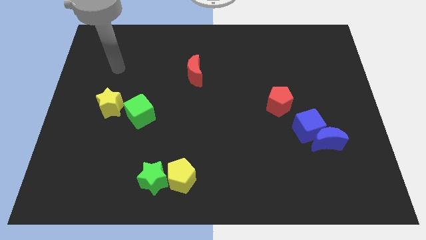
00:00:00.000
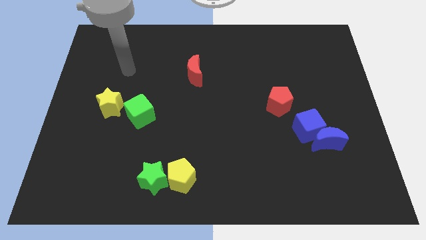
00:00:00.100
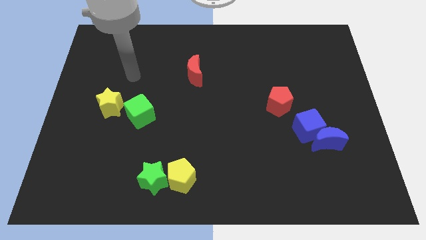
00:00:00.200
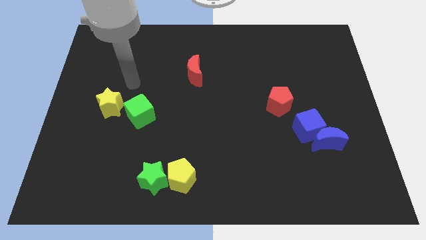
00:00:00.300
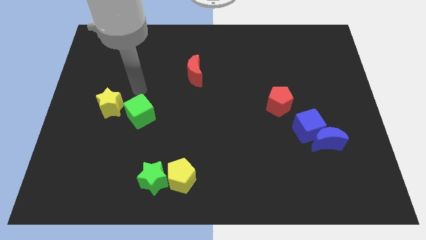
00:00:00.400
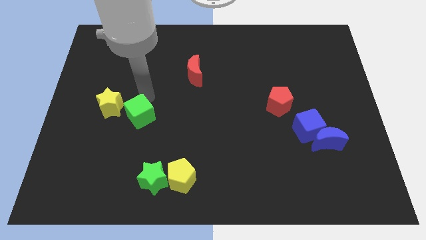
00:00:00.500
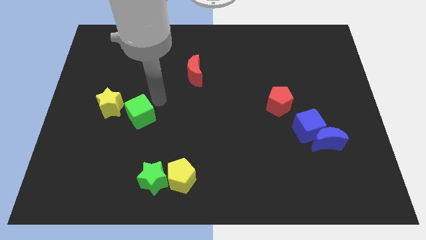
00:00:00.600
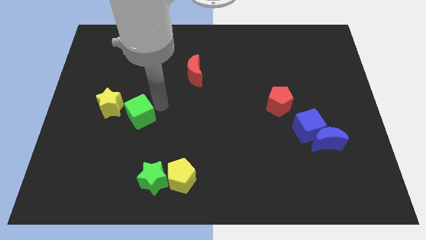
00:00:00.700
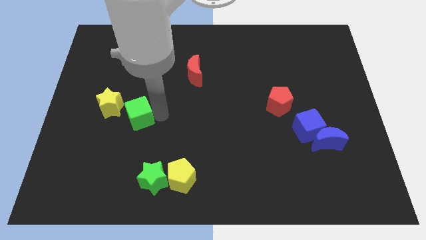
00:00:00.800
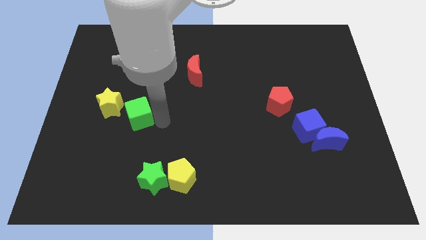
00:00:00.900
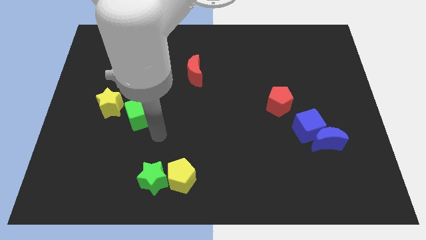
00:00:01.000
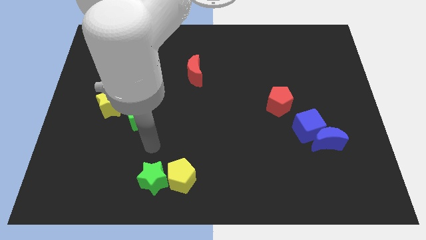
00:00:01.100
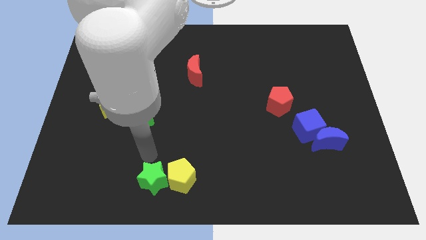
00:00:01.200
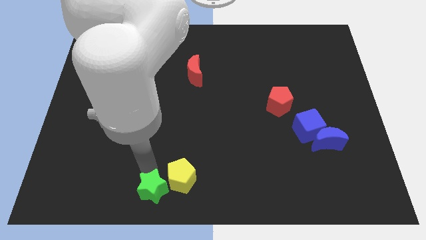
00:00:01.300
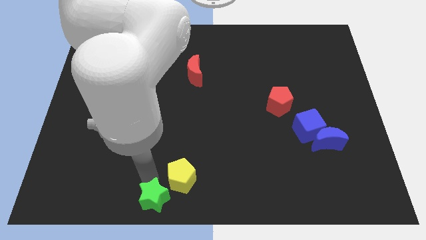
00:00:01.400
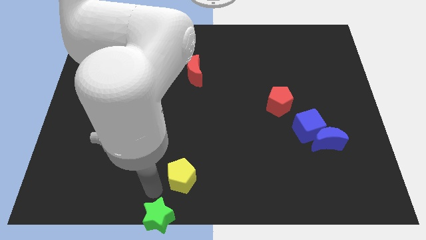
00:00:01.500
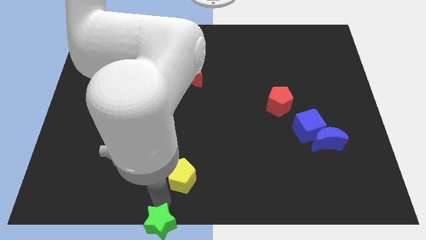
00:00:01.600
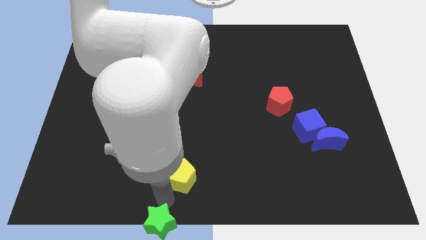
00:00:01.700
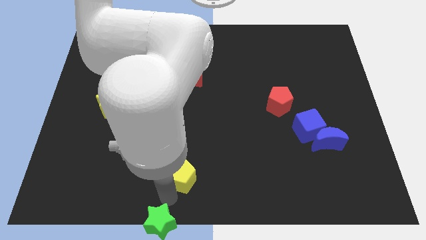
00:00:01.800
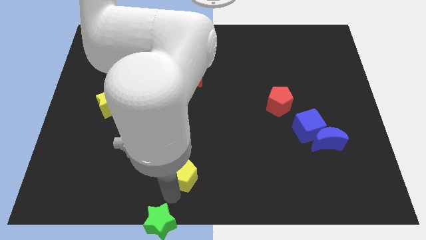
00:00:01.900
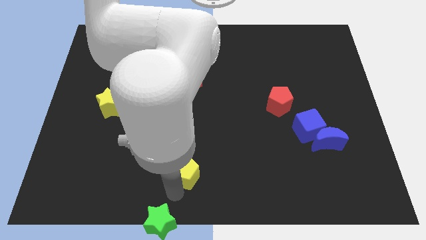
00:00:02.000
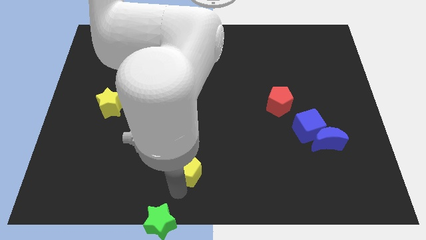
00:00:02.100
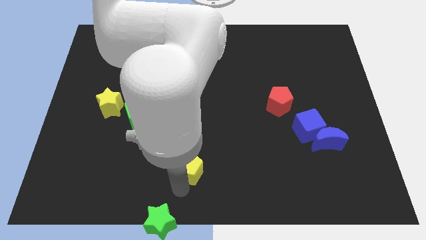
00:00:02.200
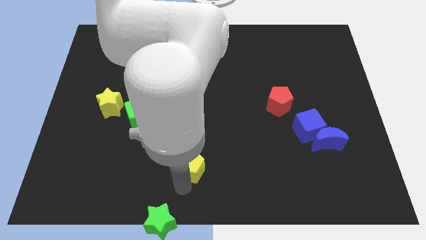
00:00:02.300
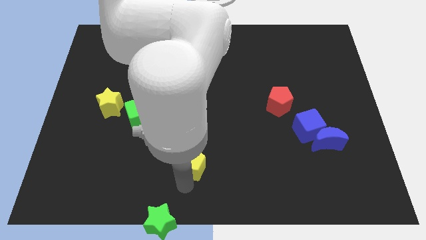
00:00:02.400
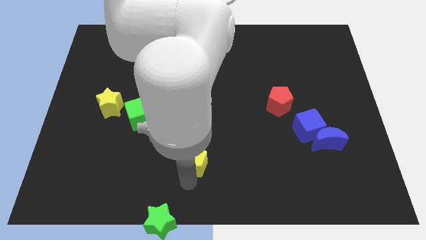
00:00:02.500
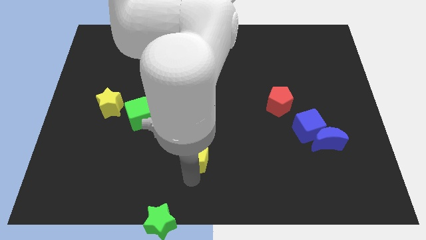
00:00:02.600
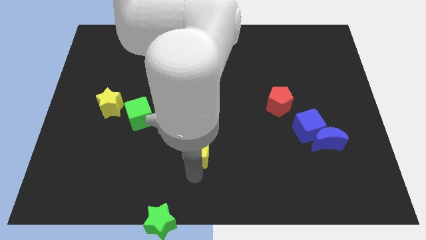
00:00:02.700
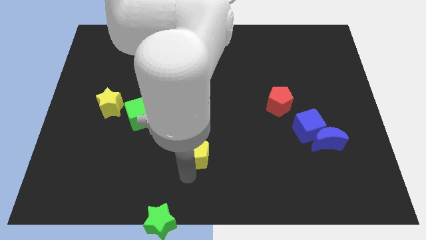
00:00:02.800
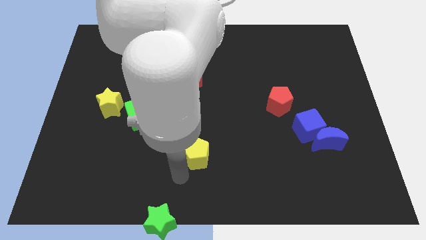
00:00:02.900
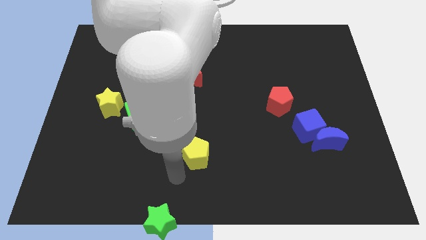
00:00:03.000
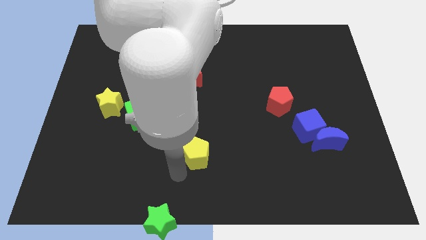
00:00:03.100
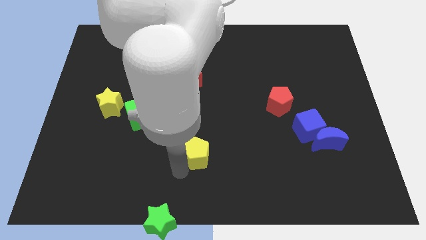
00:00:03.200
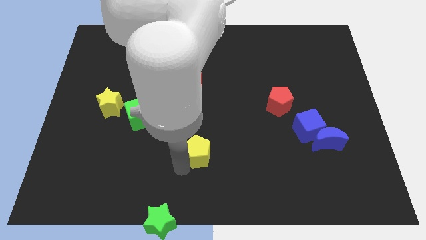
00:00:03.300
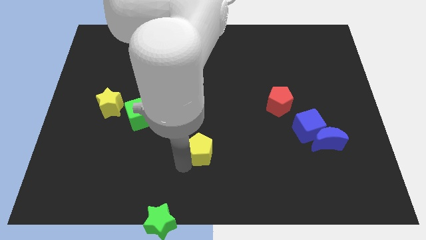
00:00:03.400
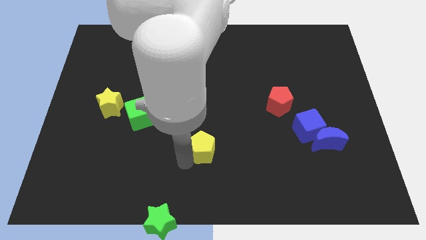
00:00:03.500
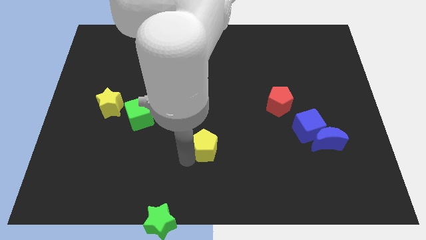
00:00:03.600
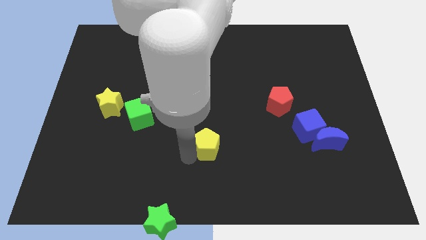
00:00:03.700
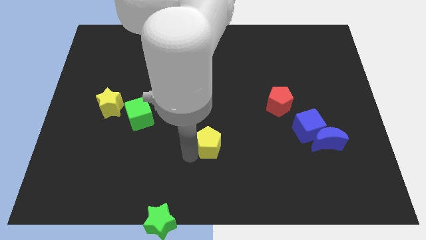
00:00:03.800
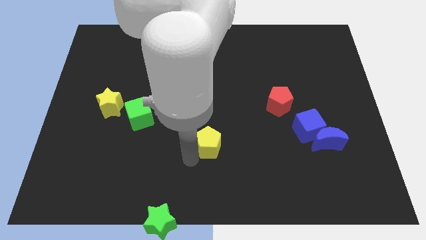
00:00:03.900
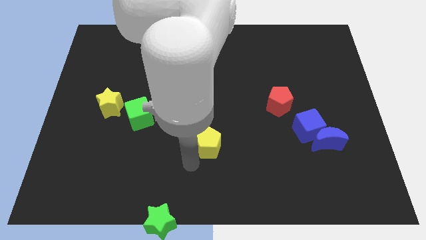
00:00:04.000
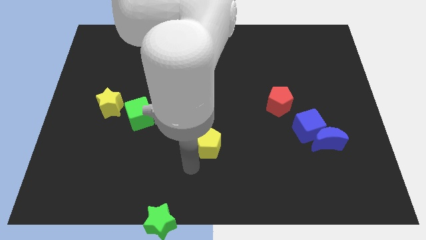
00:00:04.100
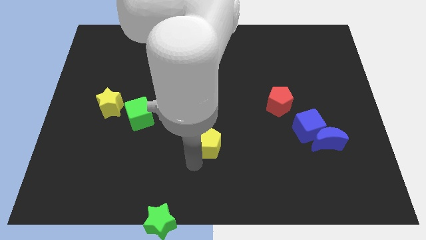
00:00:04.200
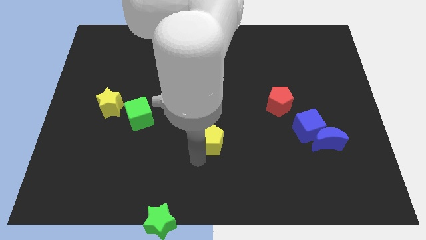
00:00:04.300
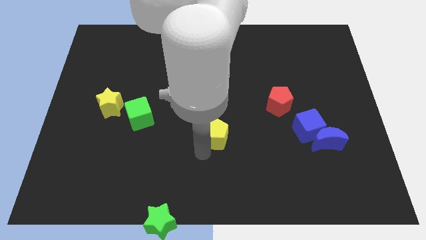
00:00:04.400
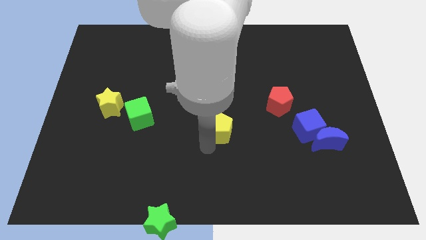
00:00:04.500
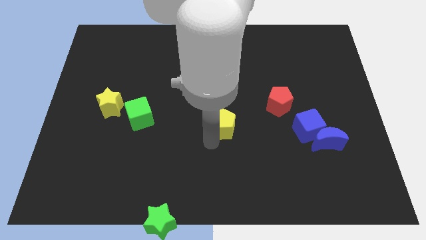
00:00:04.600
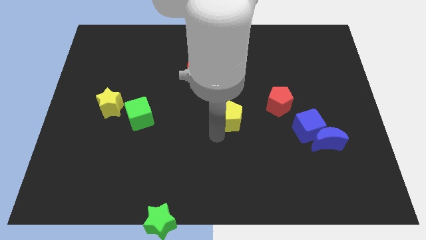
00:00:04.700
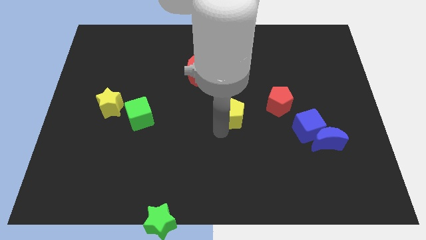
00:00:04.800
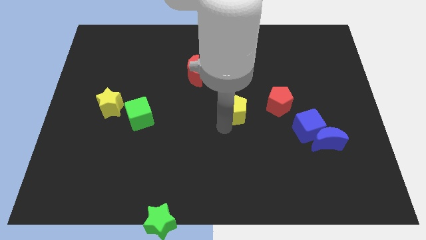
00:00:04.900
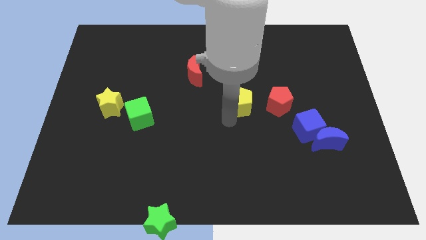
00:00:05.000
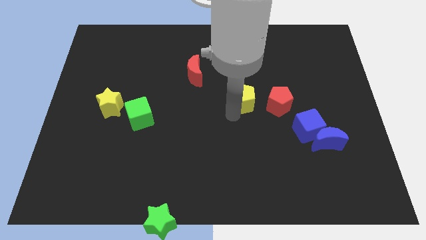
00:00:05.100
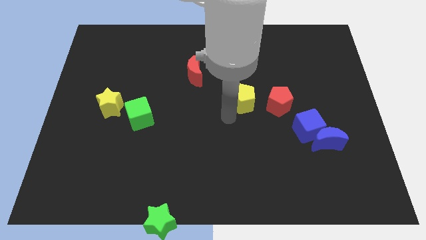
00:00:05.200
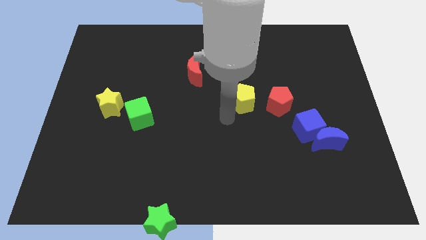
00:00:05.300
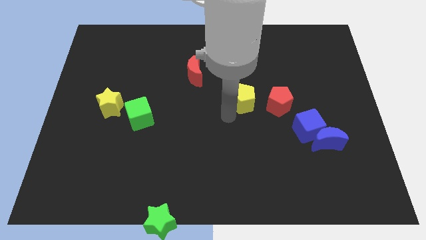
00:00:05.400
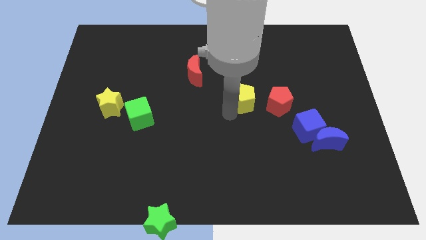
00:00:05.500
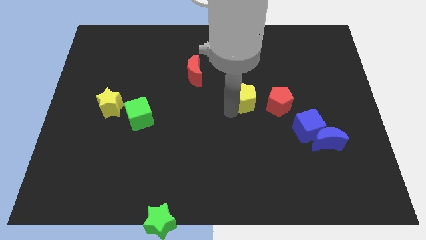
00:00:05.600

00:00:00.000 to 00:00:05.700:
put the yellow pentagon to the top left side of the red pentagon

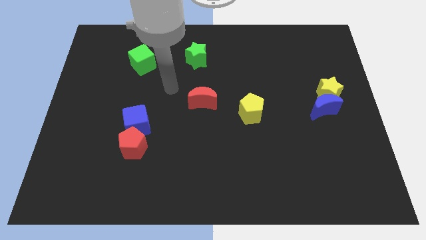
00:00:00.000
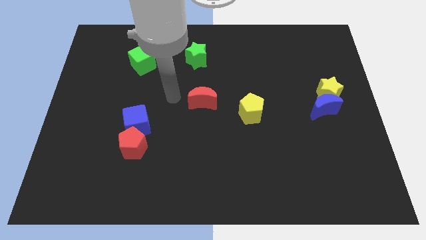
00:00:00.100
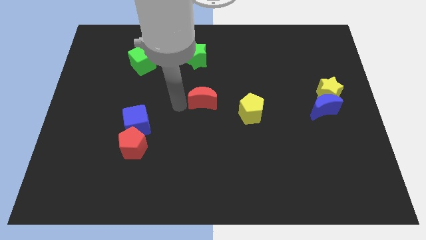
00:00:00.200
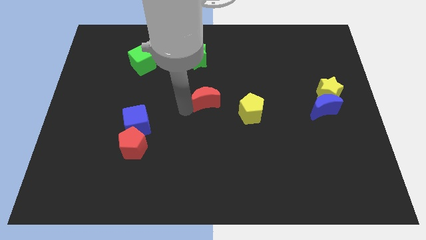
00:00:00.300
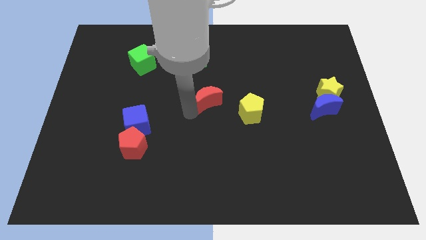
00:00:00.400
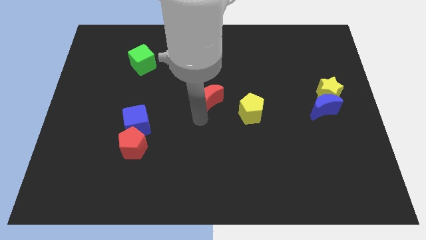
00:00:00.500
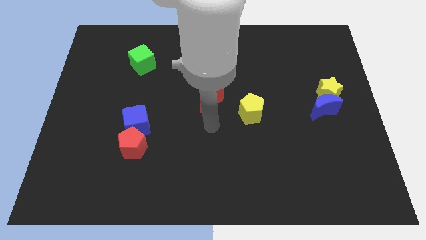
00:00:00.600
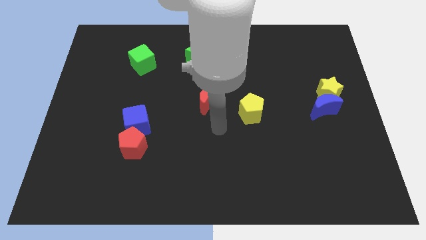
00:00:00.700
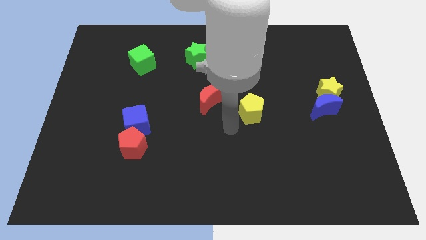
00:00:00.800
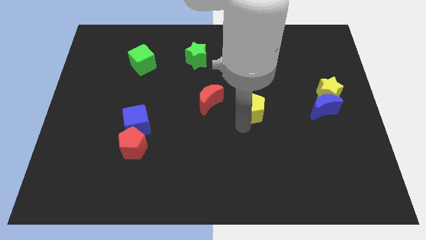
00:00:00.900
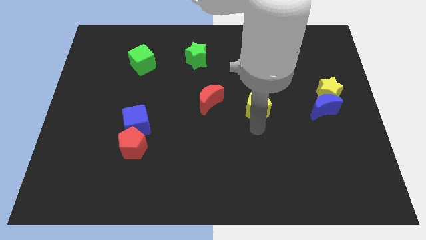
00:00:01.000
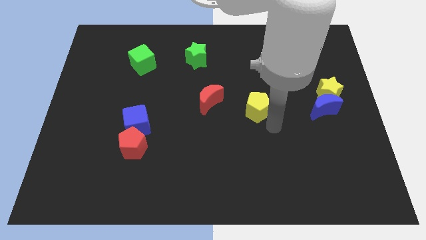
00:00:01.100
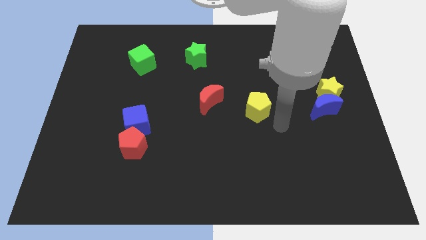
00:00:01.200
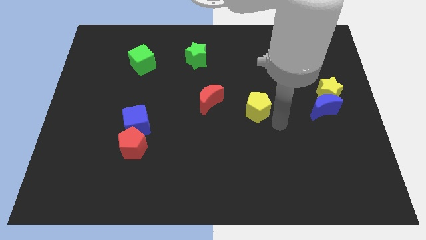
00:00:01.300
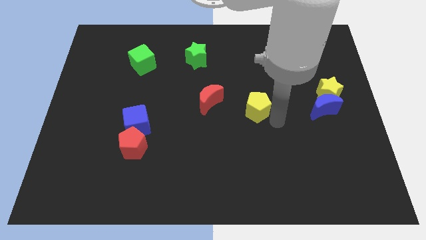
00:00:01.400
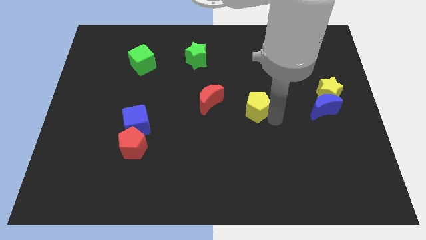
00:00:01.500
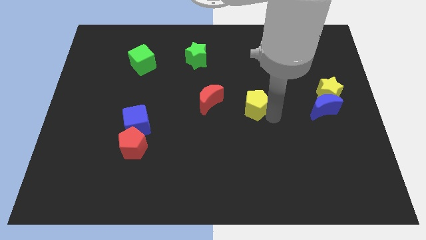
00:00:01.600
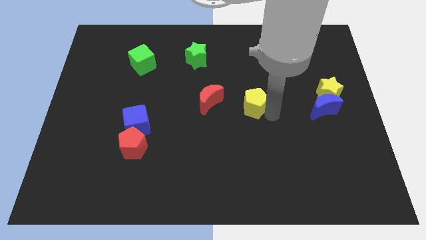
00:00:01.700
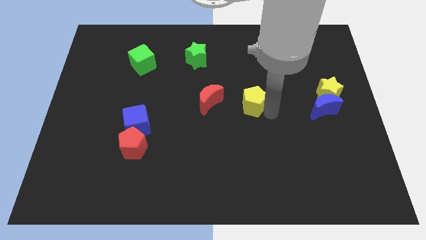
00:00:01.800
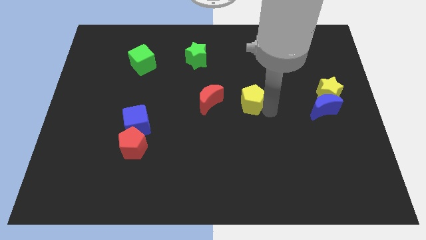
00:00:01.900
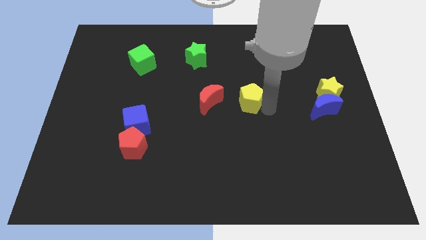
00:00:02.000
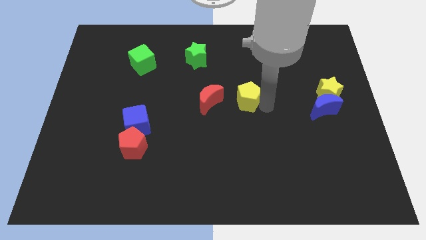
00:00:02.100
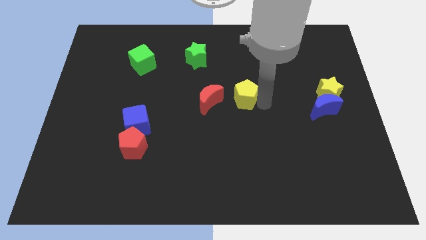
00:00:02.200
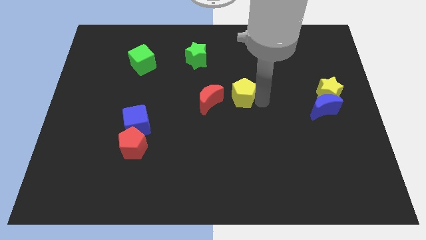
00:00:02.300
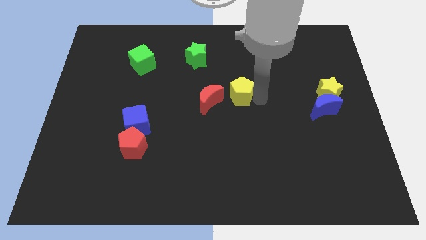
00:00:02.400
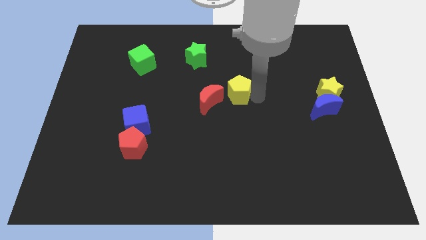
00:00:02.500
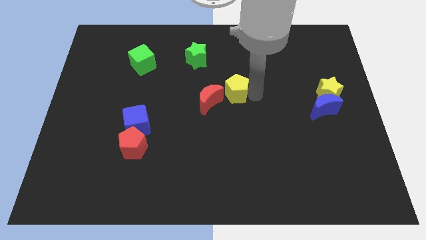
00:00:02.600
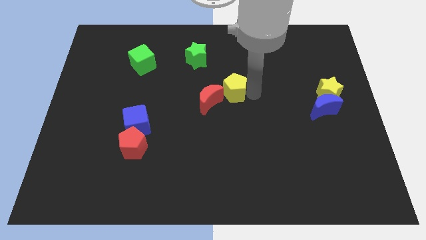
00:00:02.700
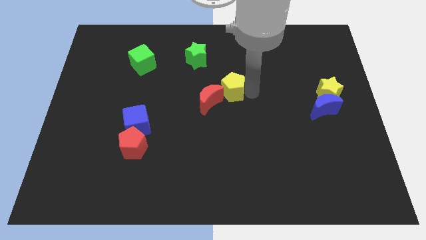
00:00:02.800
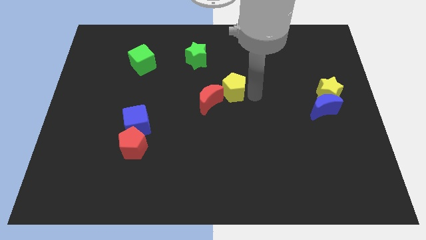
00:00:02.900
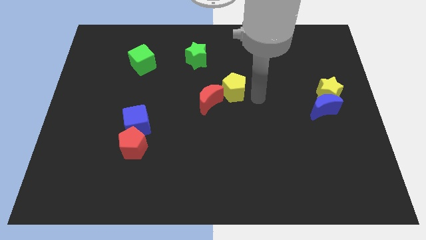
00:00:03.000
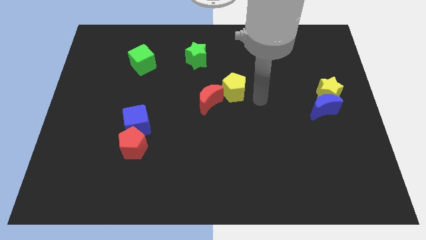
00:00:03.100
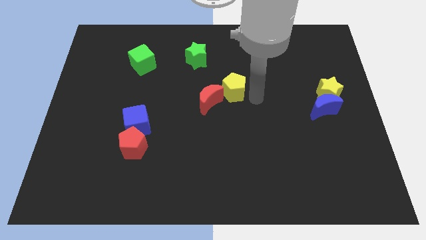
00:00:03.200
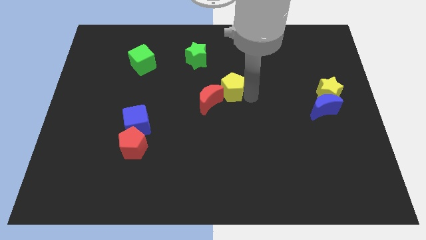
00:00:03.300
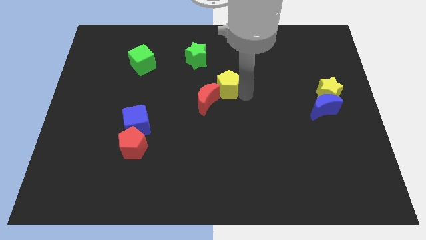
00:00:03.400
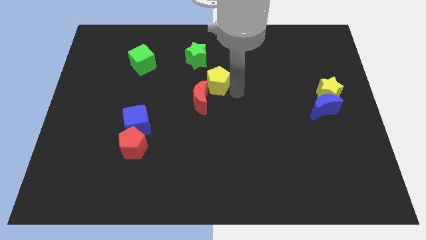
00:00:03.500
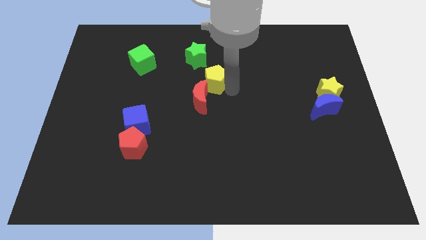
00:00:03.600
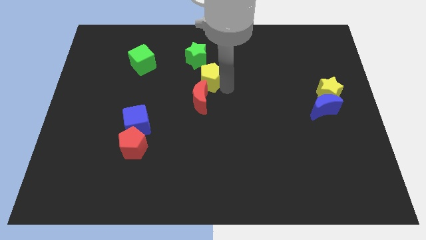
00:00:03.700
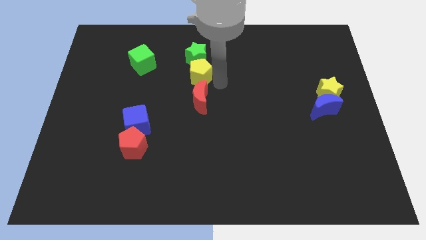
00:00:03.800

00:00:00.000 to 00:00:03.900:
move the yellow pentagon to the bottom left side of the green star
